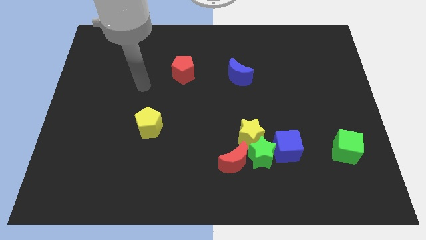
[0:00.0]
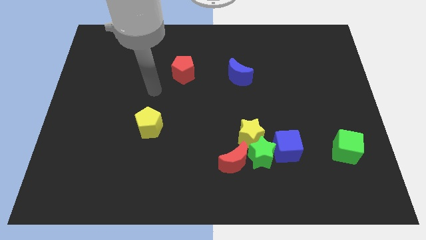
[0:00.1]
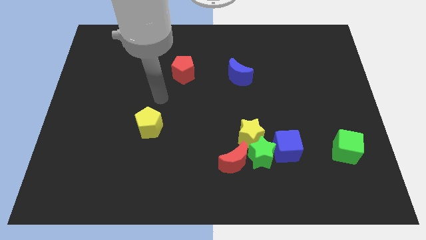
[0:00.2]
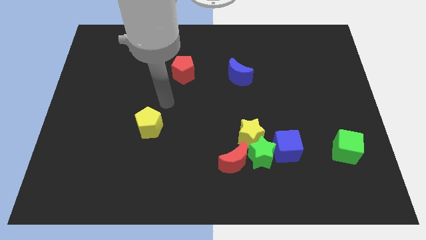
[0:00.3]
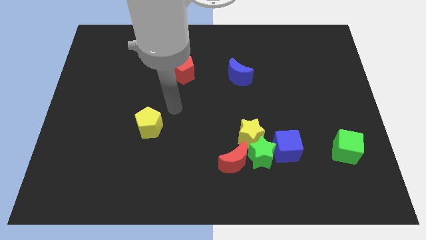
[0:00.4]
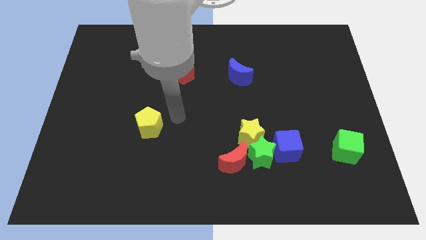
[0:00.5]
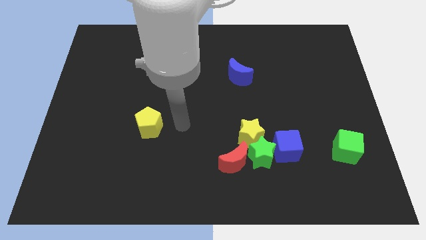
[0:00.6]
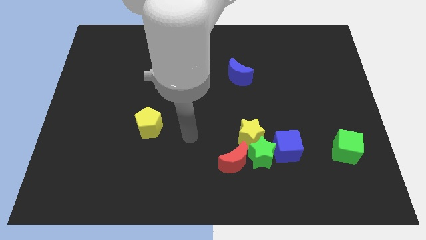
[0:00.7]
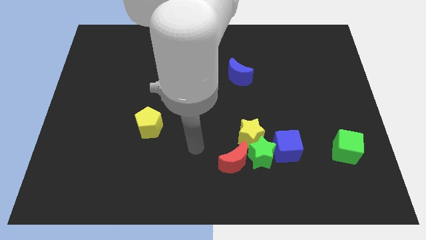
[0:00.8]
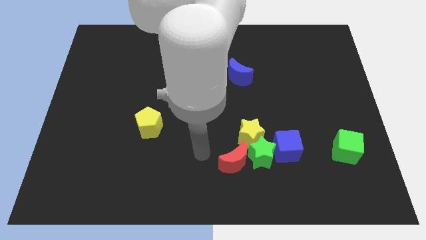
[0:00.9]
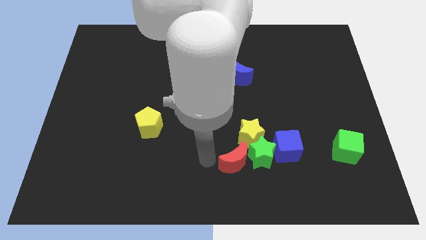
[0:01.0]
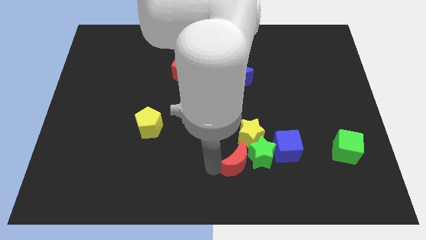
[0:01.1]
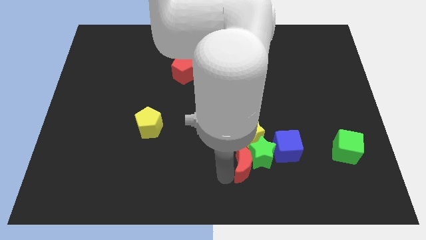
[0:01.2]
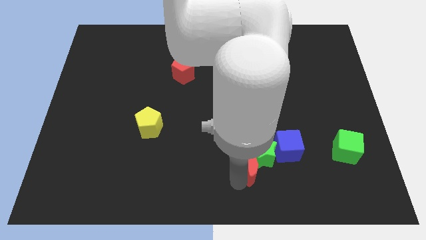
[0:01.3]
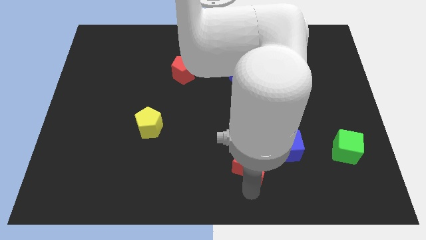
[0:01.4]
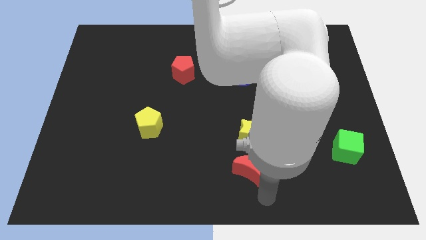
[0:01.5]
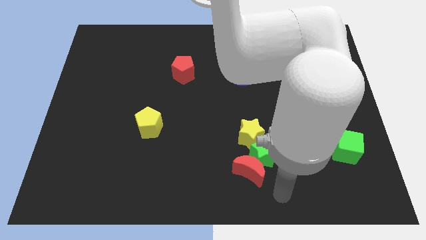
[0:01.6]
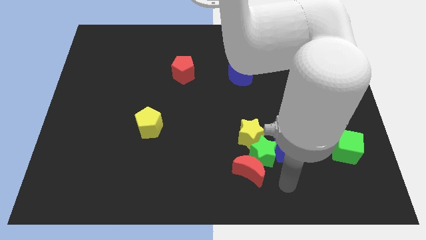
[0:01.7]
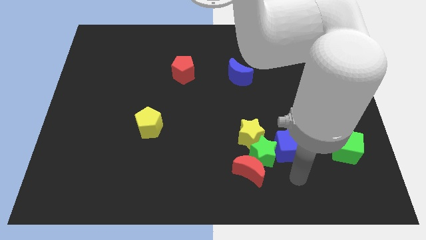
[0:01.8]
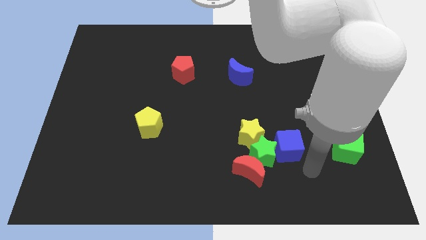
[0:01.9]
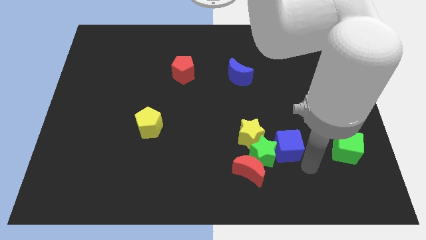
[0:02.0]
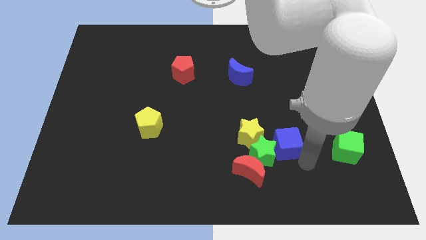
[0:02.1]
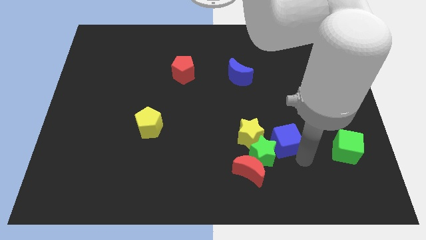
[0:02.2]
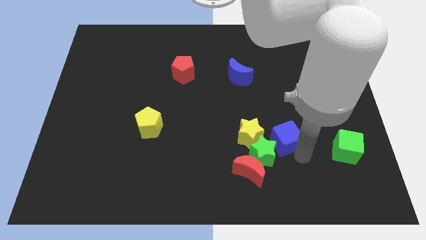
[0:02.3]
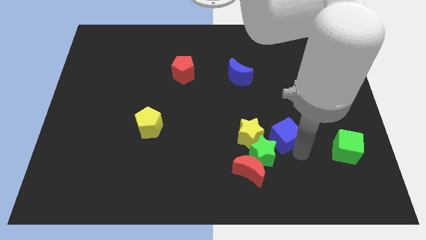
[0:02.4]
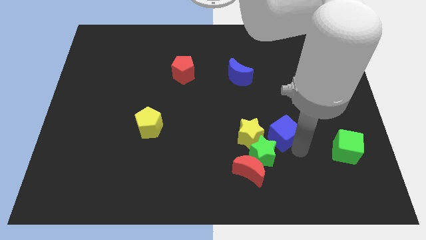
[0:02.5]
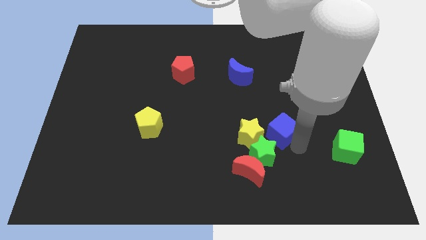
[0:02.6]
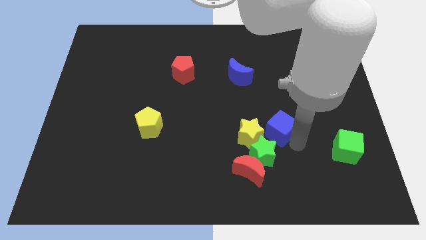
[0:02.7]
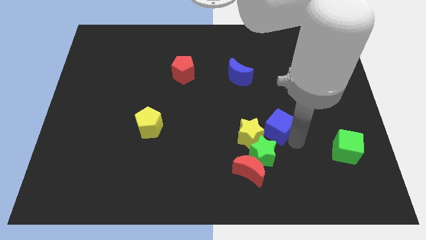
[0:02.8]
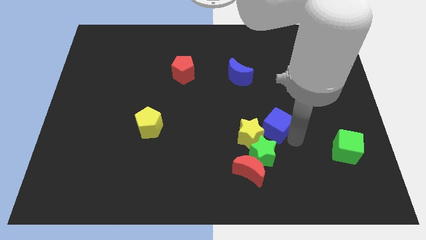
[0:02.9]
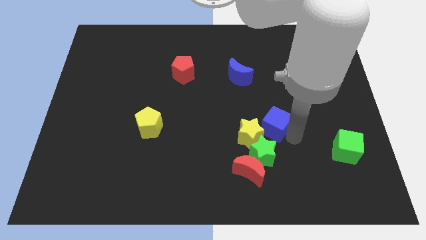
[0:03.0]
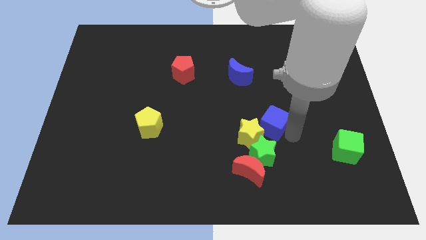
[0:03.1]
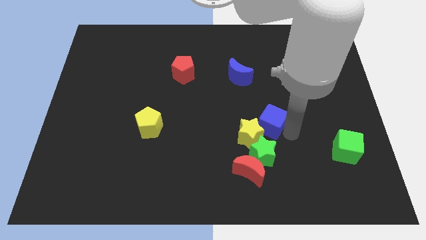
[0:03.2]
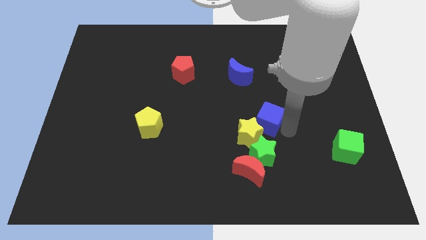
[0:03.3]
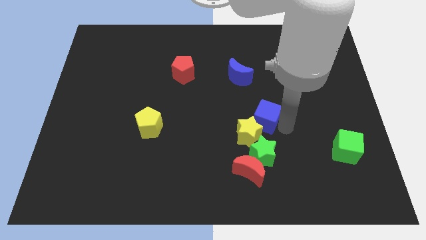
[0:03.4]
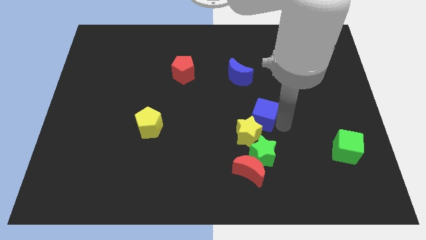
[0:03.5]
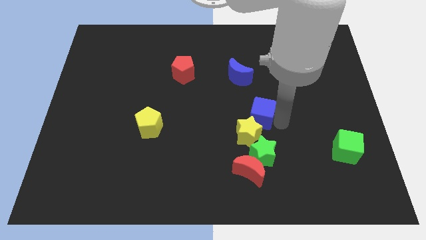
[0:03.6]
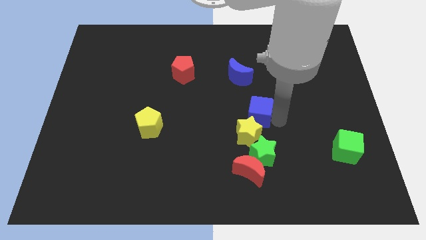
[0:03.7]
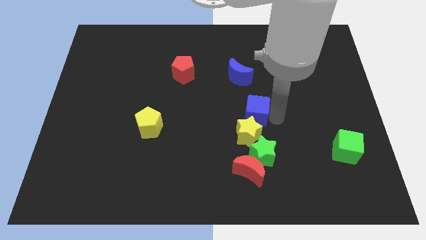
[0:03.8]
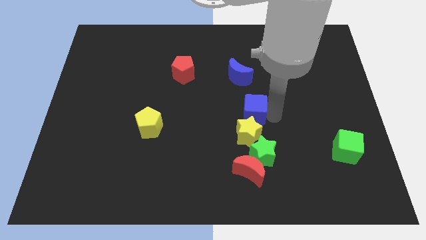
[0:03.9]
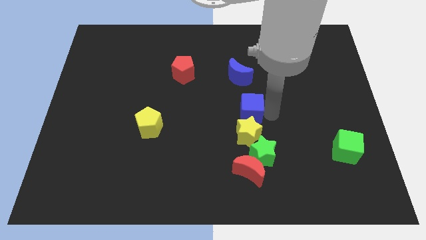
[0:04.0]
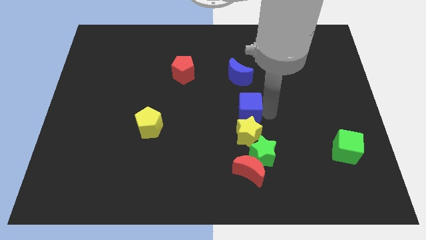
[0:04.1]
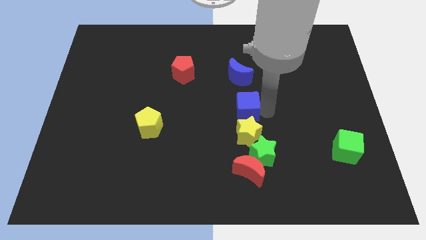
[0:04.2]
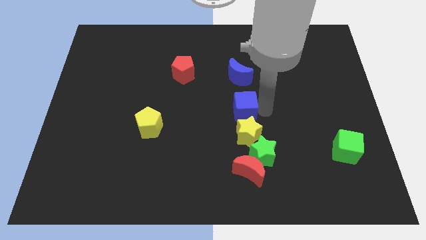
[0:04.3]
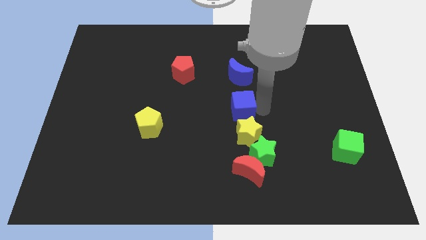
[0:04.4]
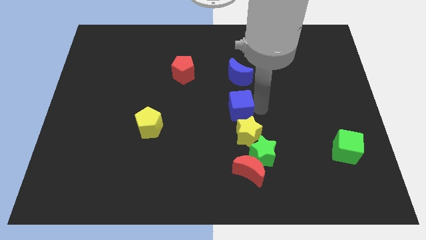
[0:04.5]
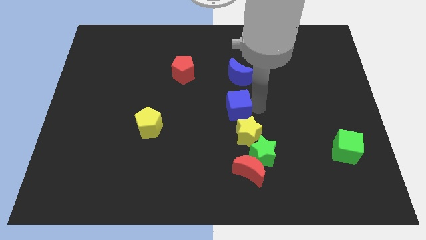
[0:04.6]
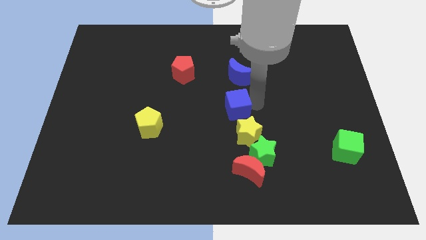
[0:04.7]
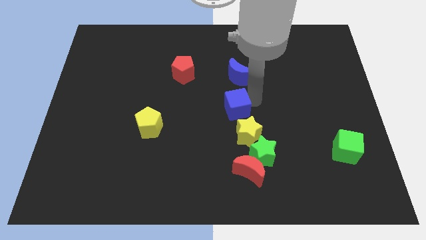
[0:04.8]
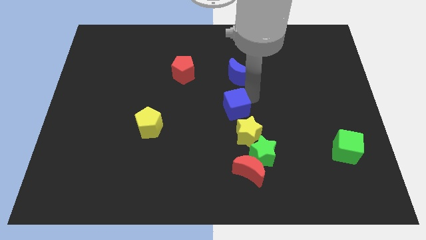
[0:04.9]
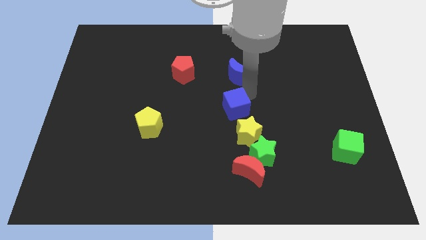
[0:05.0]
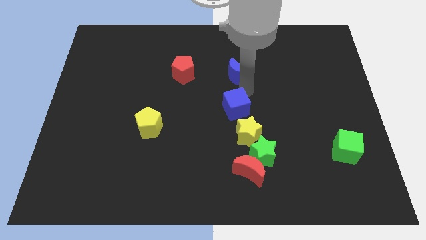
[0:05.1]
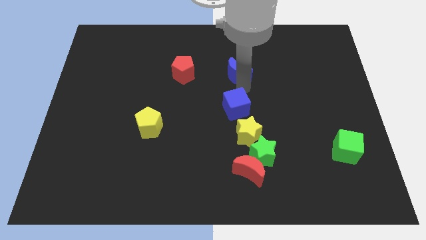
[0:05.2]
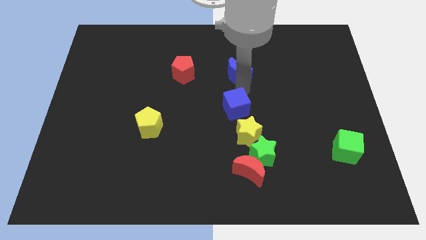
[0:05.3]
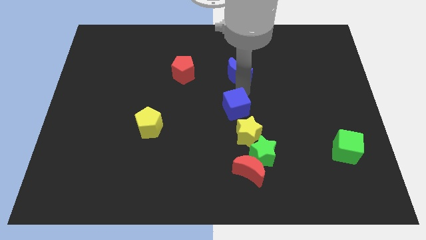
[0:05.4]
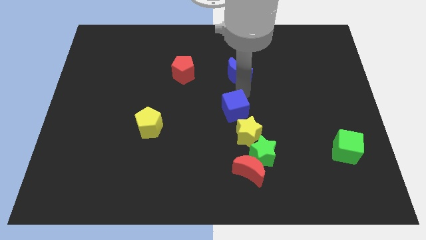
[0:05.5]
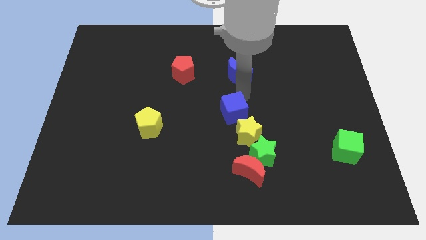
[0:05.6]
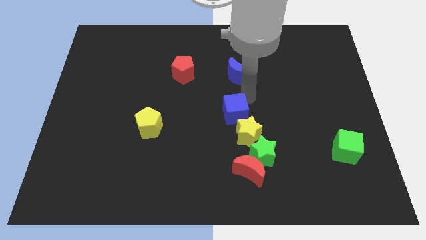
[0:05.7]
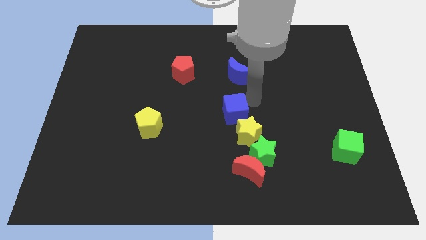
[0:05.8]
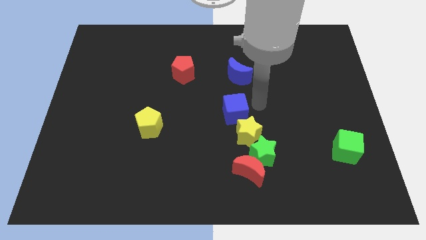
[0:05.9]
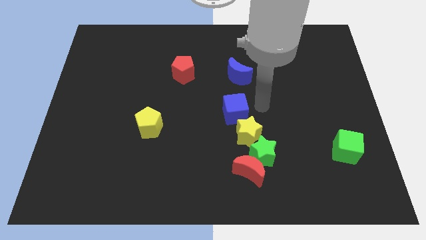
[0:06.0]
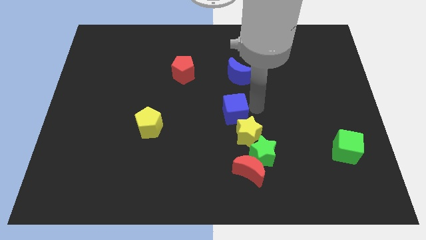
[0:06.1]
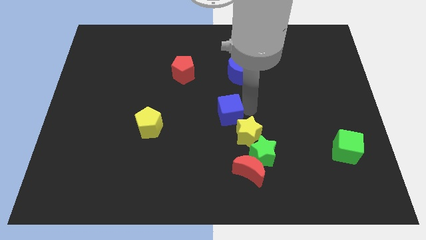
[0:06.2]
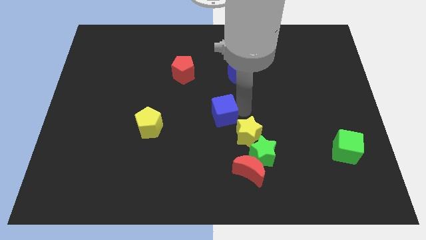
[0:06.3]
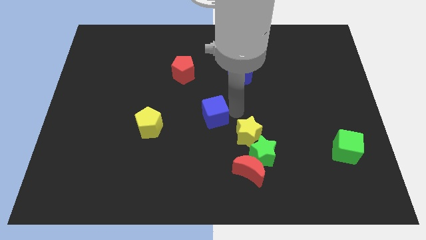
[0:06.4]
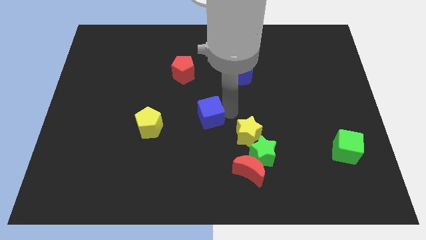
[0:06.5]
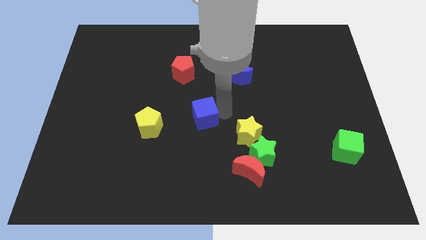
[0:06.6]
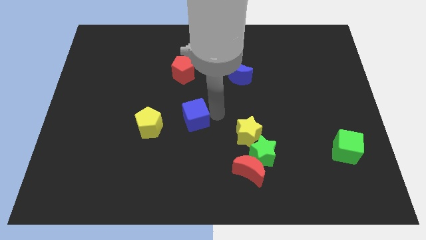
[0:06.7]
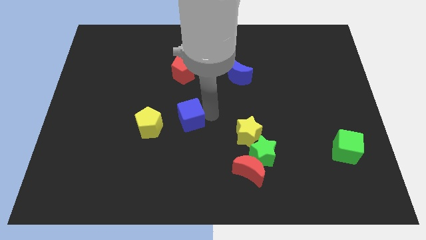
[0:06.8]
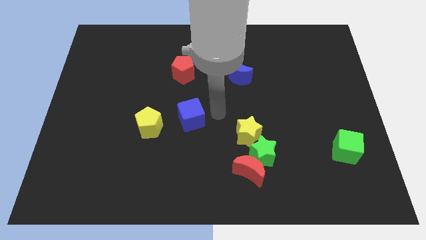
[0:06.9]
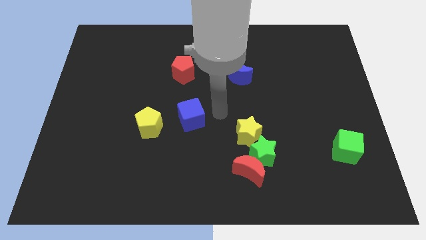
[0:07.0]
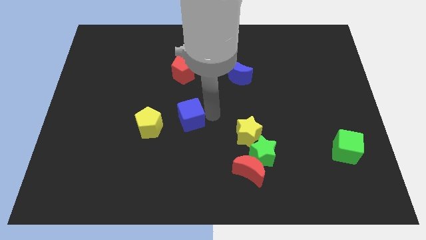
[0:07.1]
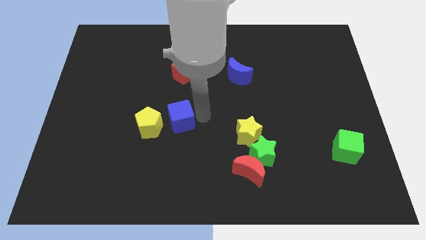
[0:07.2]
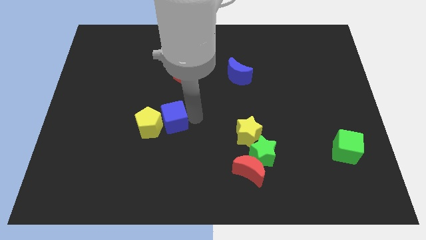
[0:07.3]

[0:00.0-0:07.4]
slide the blue cube next to the yellow pentagon

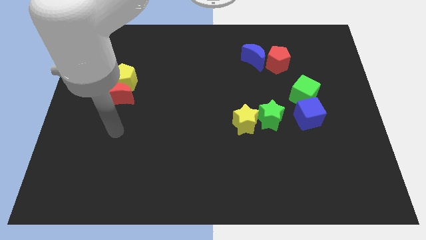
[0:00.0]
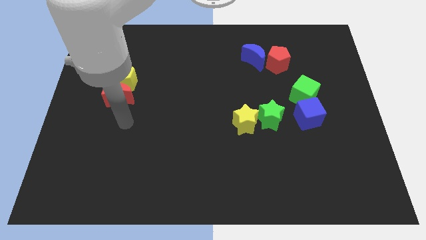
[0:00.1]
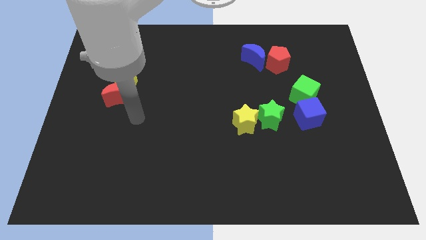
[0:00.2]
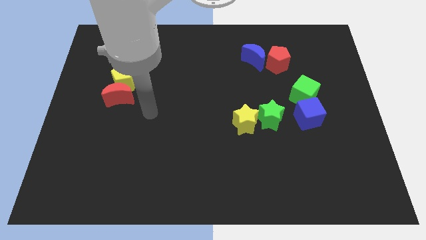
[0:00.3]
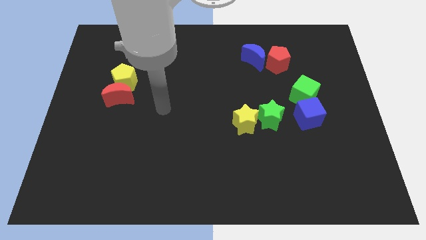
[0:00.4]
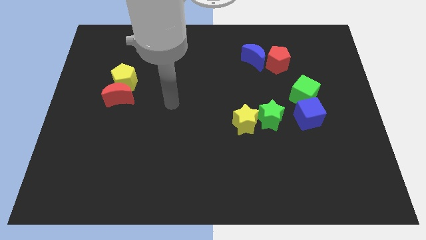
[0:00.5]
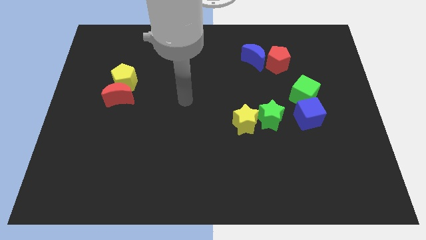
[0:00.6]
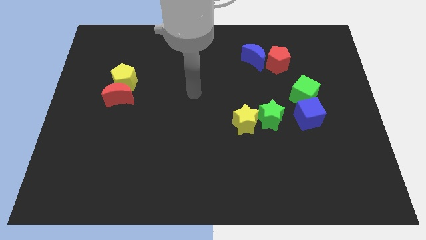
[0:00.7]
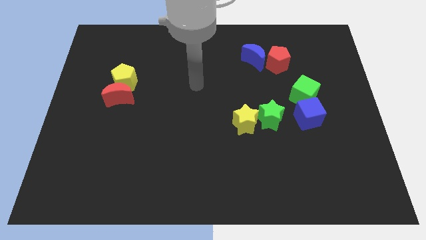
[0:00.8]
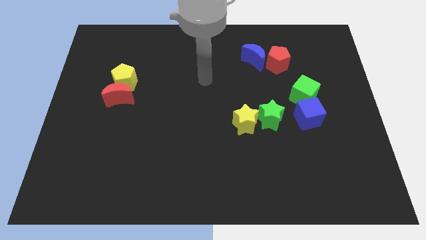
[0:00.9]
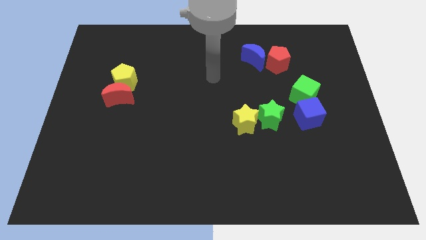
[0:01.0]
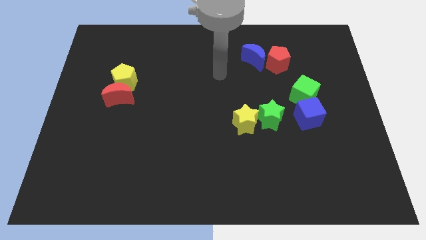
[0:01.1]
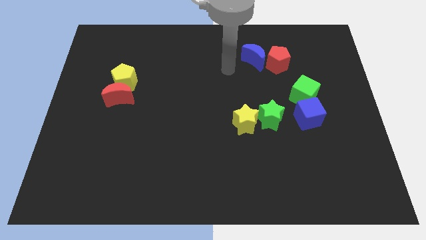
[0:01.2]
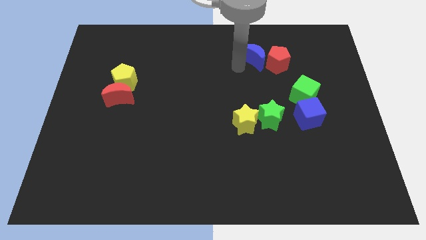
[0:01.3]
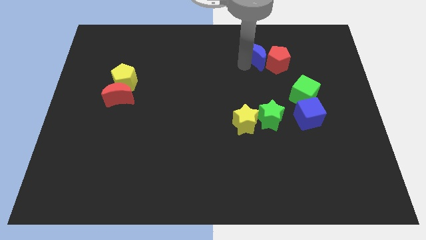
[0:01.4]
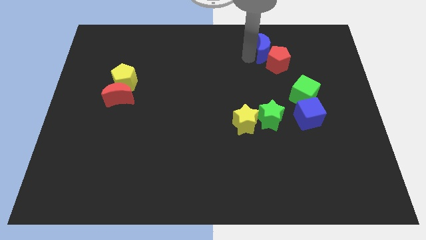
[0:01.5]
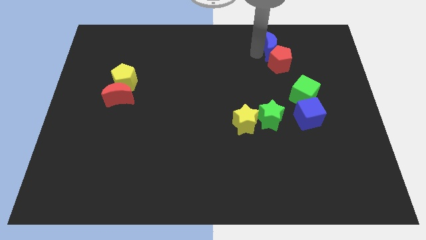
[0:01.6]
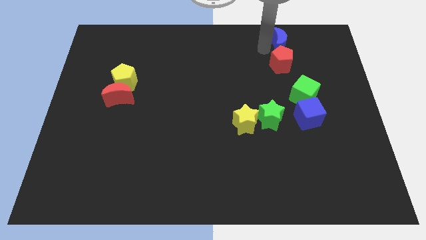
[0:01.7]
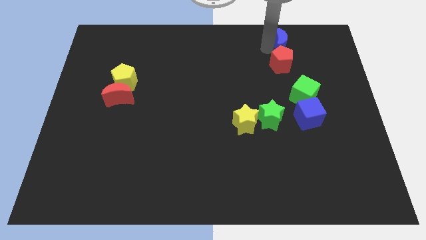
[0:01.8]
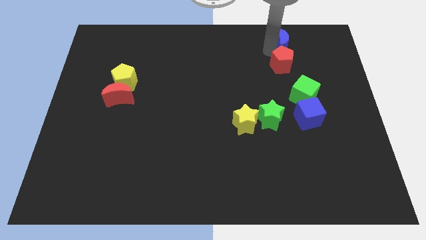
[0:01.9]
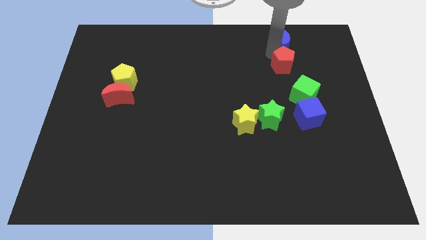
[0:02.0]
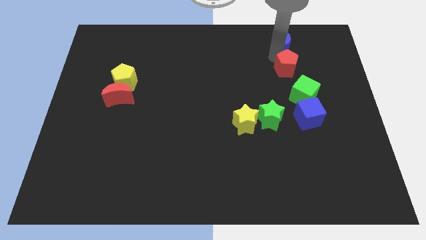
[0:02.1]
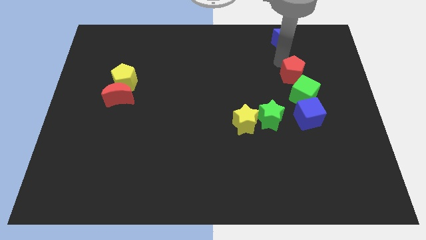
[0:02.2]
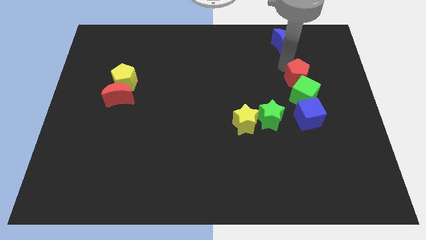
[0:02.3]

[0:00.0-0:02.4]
slide the red pentagon close to the green cube
